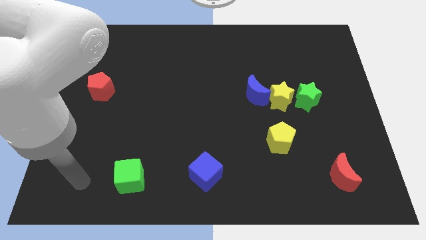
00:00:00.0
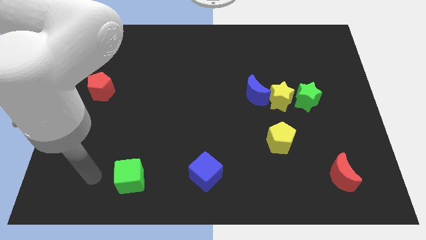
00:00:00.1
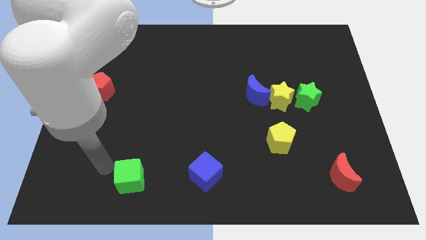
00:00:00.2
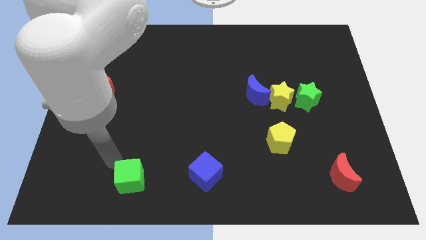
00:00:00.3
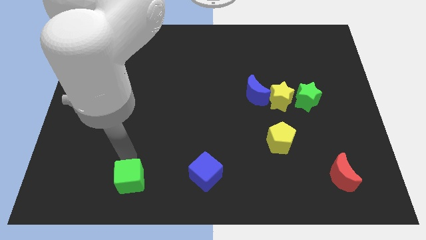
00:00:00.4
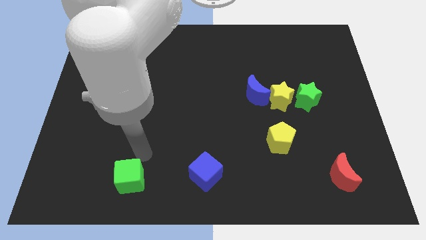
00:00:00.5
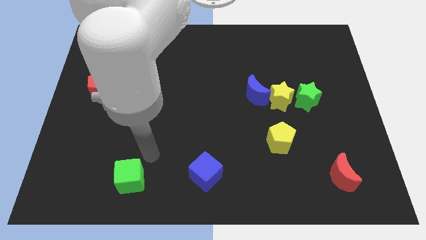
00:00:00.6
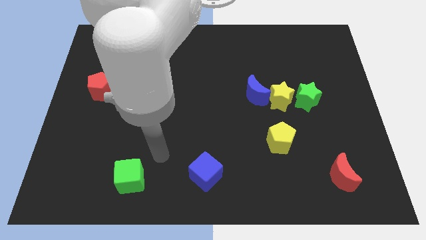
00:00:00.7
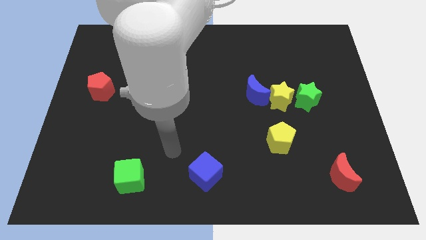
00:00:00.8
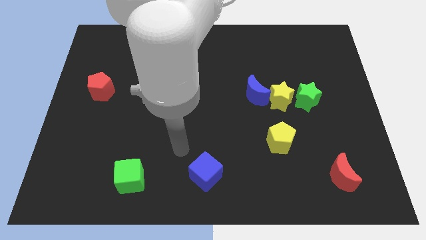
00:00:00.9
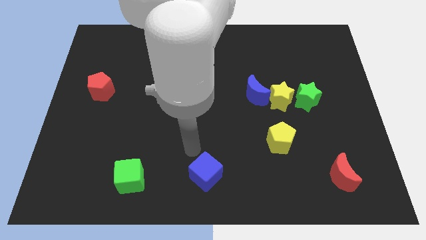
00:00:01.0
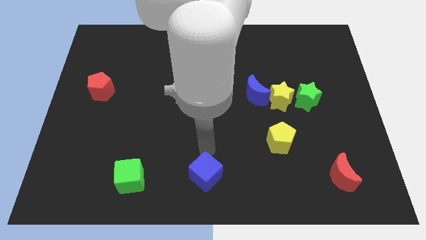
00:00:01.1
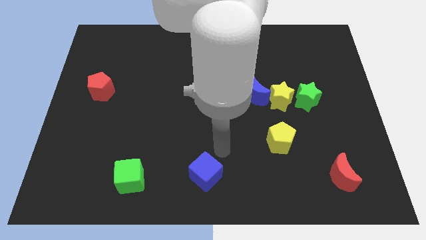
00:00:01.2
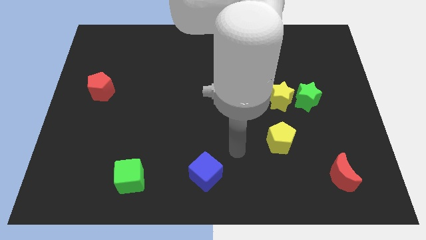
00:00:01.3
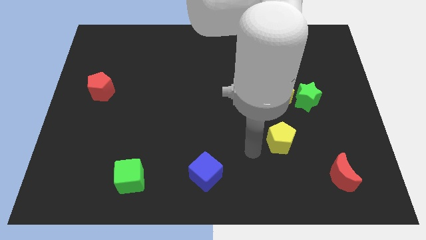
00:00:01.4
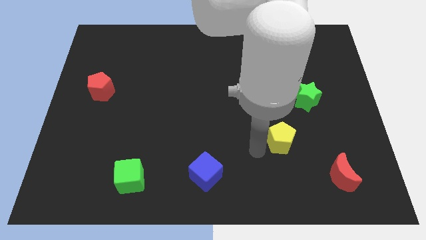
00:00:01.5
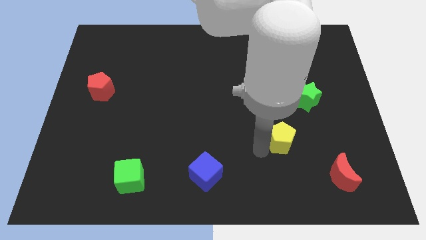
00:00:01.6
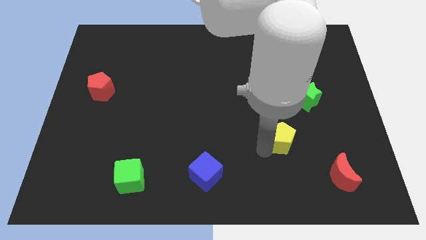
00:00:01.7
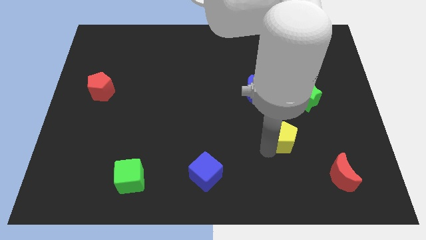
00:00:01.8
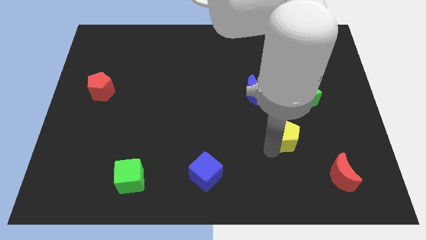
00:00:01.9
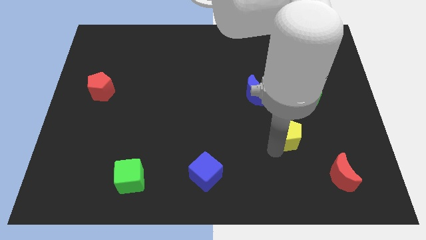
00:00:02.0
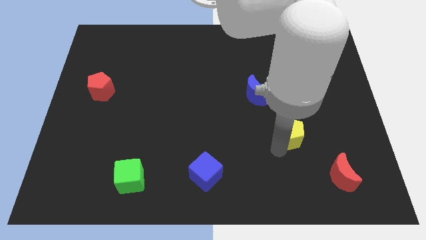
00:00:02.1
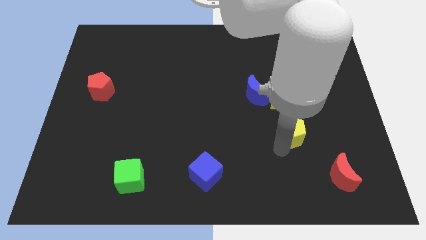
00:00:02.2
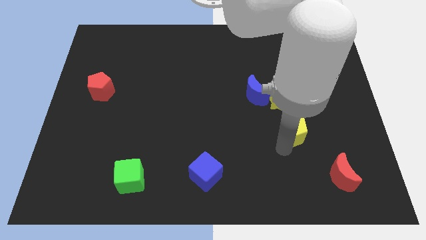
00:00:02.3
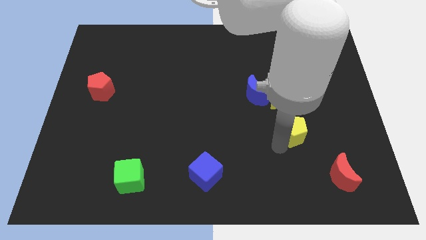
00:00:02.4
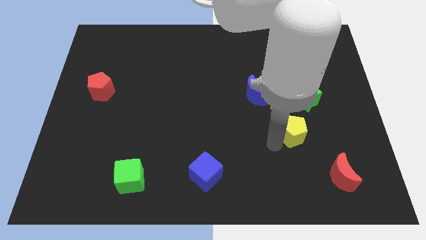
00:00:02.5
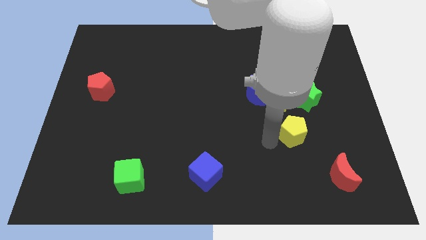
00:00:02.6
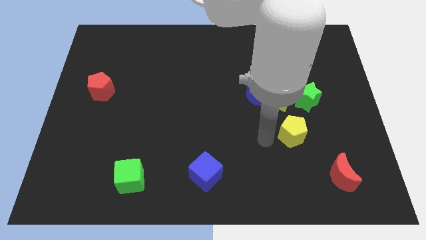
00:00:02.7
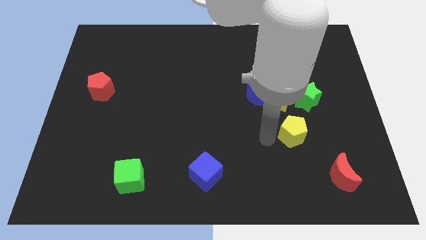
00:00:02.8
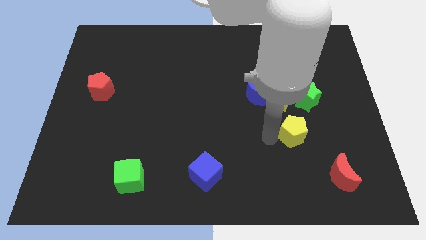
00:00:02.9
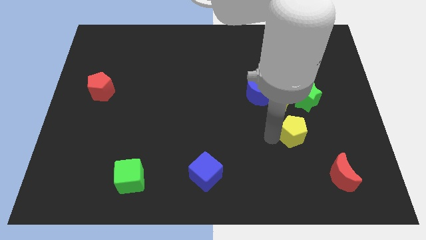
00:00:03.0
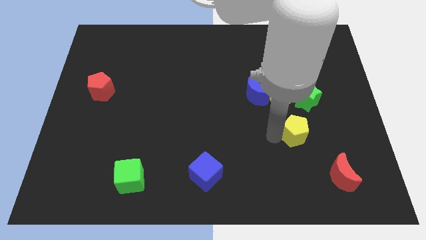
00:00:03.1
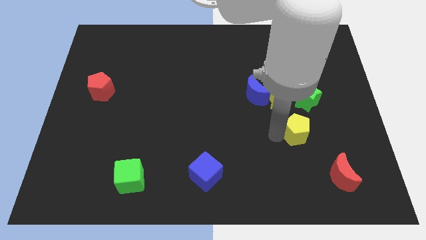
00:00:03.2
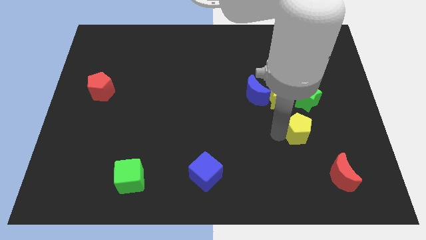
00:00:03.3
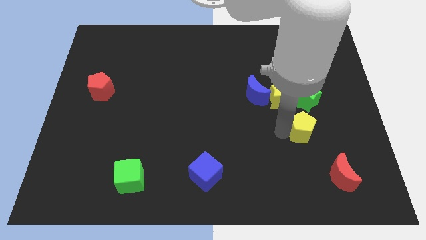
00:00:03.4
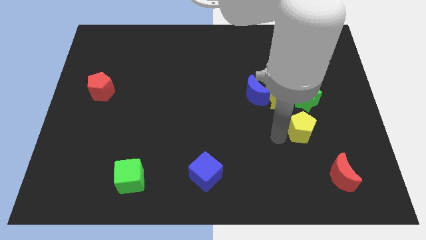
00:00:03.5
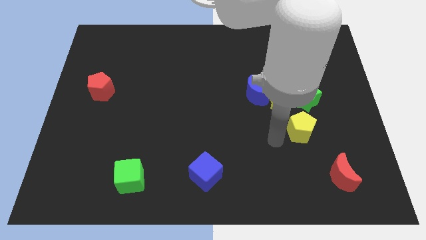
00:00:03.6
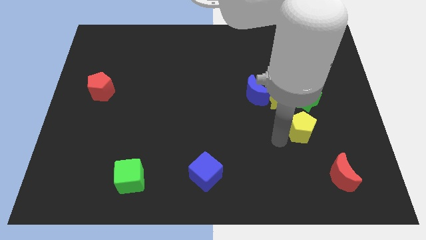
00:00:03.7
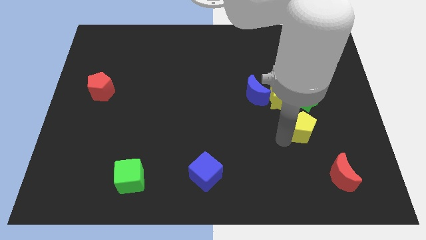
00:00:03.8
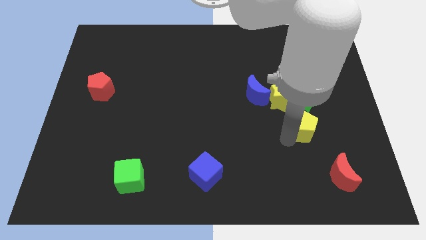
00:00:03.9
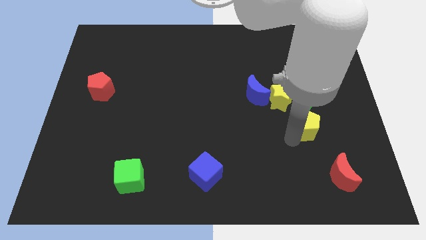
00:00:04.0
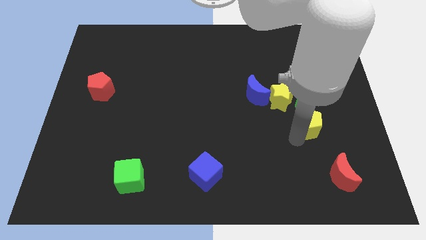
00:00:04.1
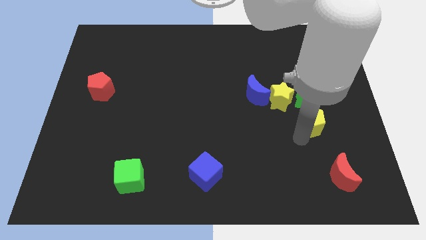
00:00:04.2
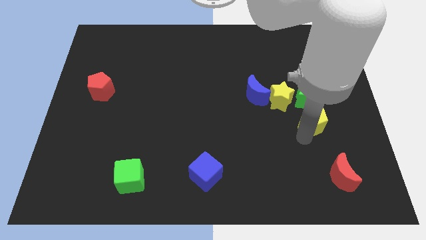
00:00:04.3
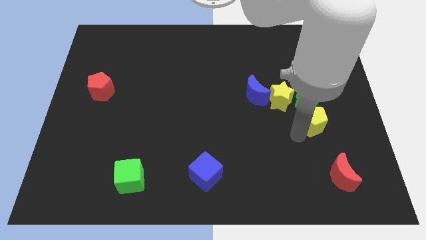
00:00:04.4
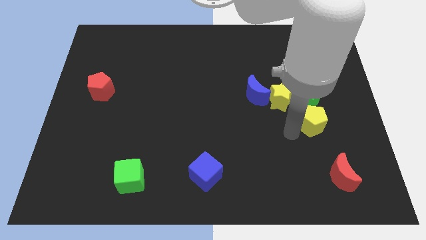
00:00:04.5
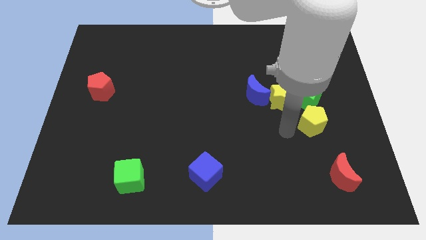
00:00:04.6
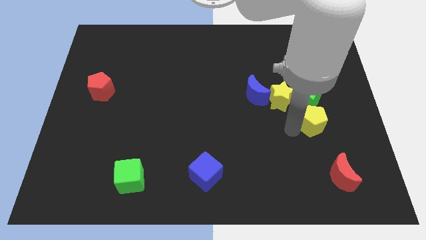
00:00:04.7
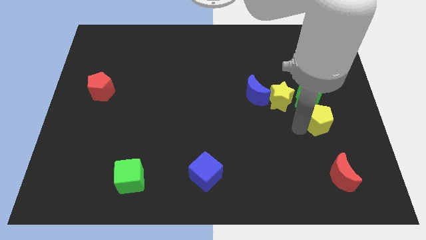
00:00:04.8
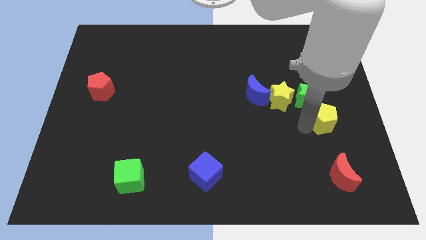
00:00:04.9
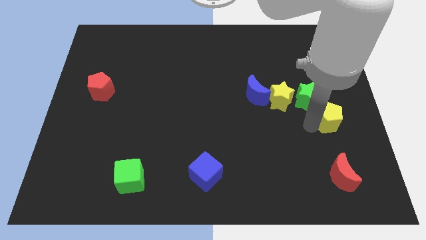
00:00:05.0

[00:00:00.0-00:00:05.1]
push the yellow pentagon to the right side
